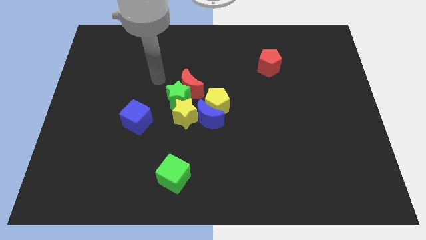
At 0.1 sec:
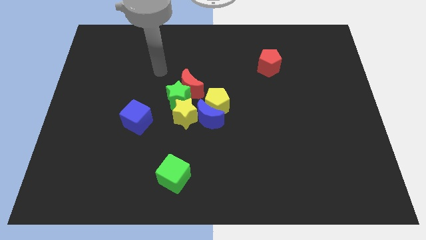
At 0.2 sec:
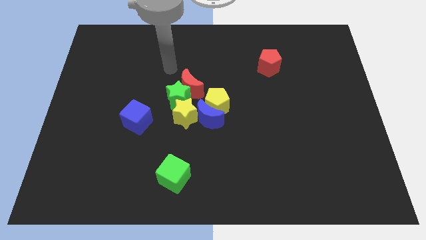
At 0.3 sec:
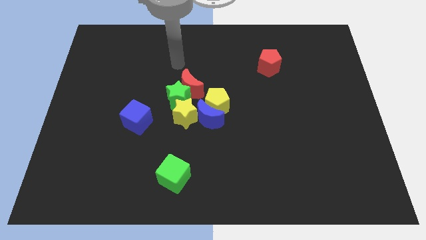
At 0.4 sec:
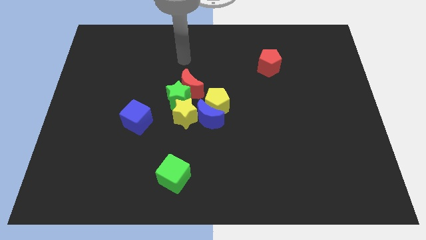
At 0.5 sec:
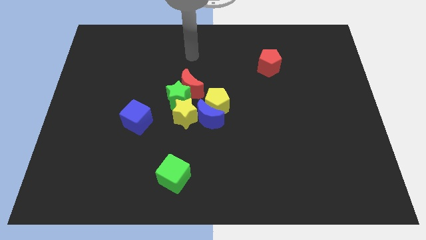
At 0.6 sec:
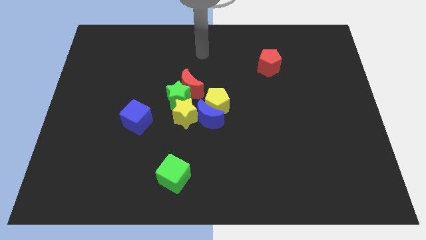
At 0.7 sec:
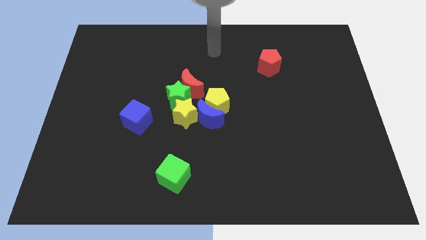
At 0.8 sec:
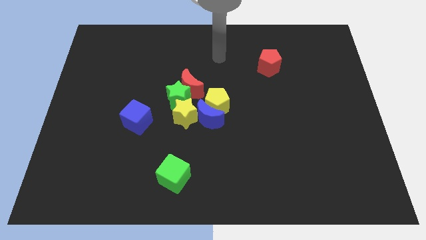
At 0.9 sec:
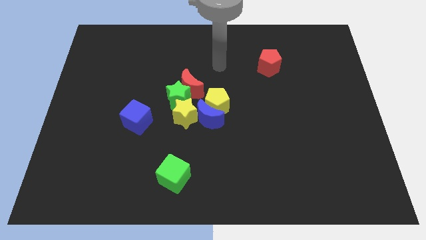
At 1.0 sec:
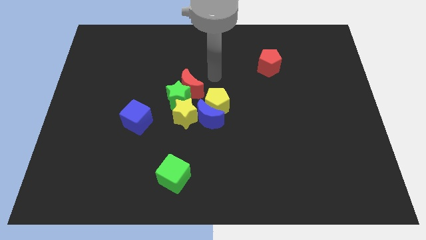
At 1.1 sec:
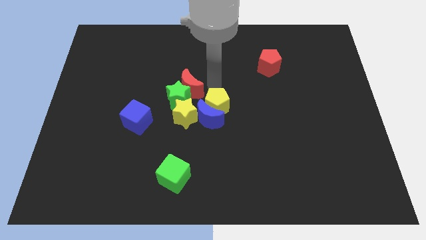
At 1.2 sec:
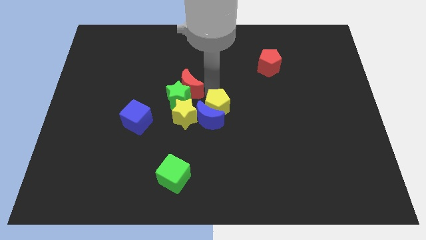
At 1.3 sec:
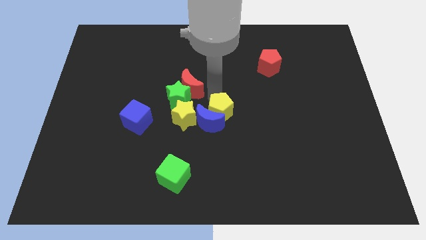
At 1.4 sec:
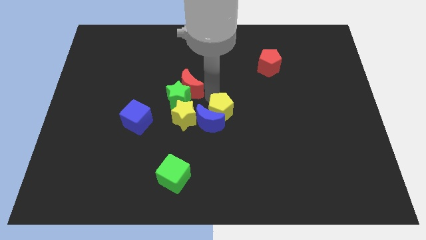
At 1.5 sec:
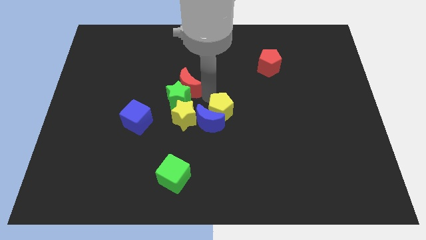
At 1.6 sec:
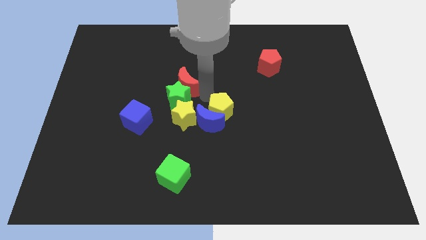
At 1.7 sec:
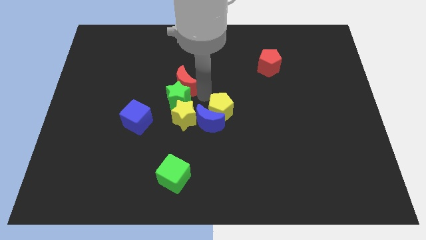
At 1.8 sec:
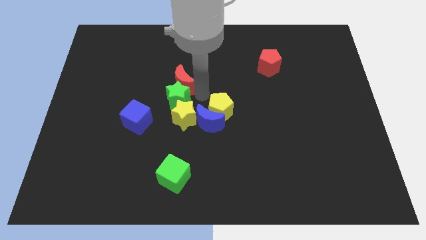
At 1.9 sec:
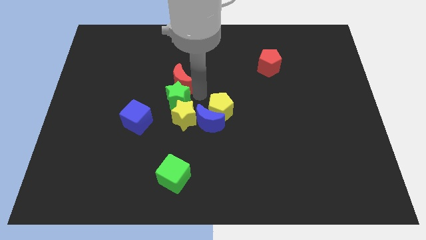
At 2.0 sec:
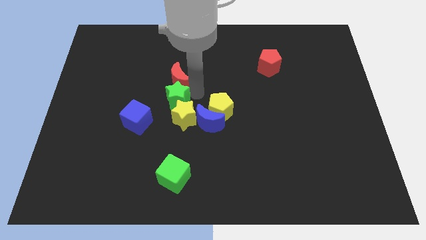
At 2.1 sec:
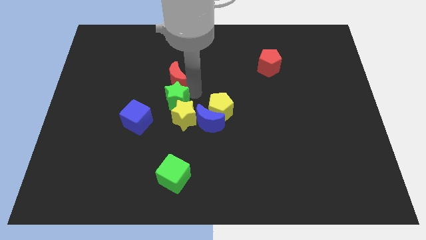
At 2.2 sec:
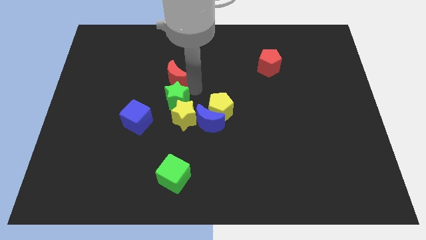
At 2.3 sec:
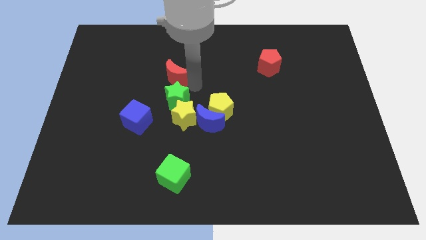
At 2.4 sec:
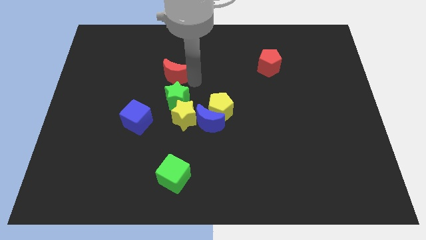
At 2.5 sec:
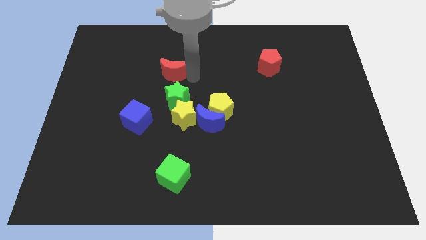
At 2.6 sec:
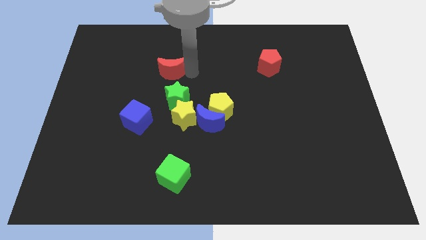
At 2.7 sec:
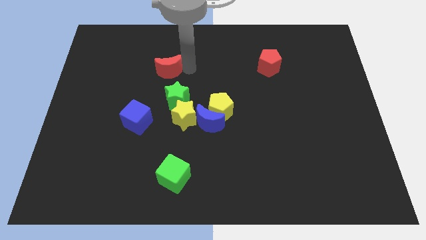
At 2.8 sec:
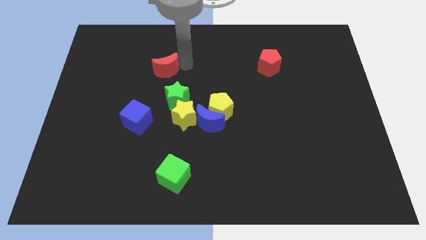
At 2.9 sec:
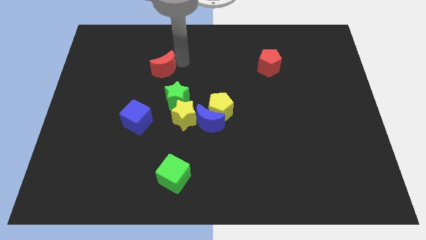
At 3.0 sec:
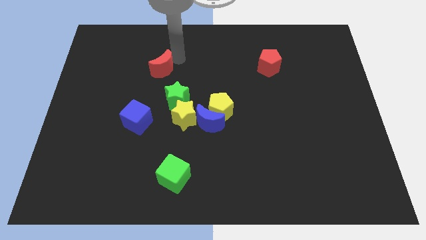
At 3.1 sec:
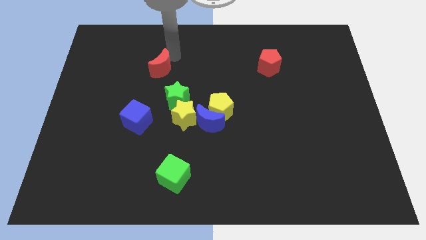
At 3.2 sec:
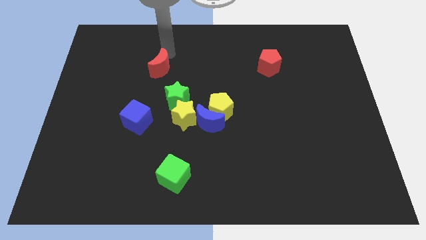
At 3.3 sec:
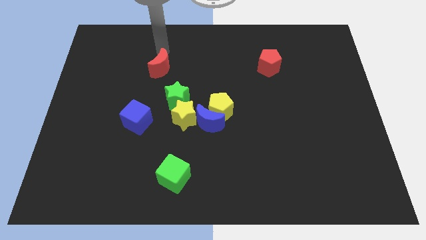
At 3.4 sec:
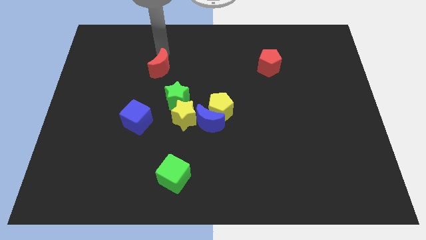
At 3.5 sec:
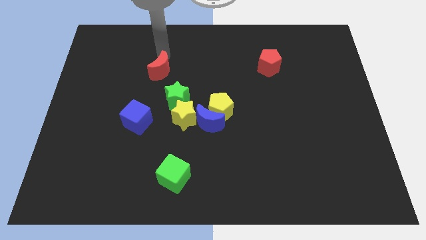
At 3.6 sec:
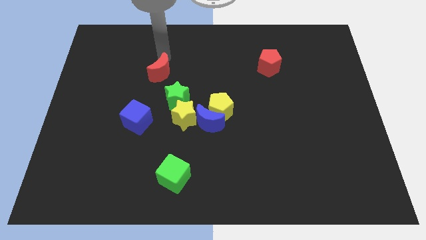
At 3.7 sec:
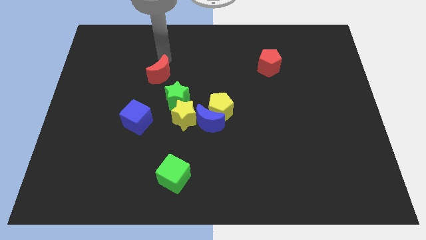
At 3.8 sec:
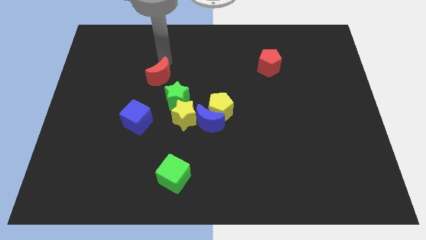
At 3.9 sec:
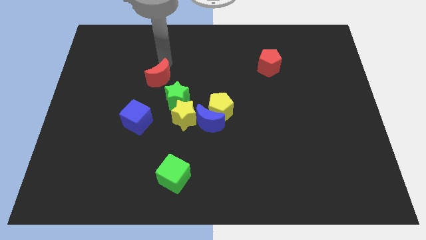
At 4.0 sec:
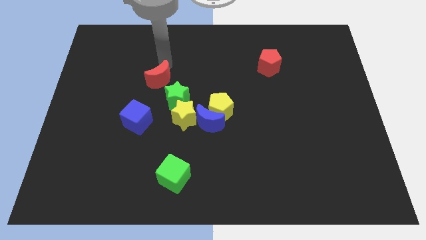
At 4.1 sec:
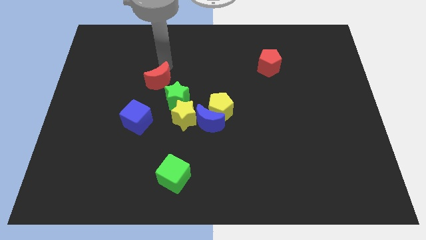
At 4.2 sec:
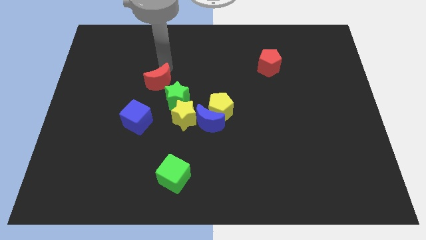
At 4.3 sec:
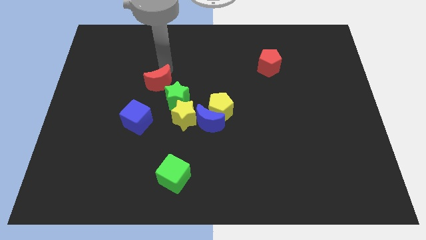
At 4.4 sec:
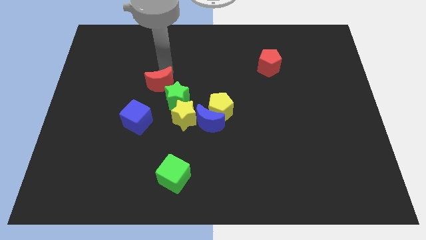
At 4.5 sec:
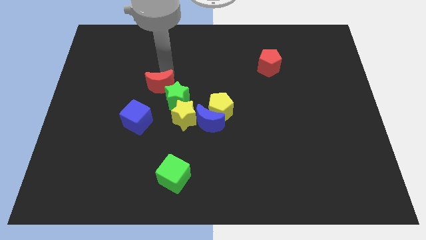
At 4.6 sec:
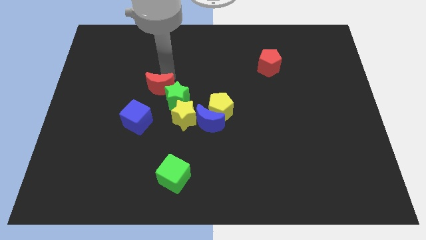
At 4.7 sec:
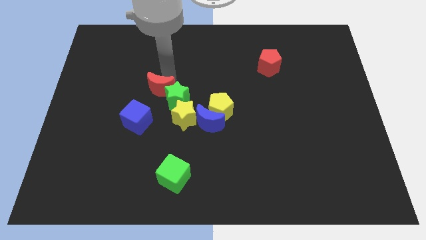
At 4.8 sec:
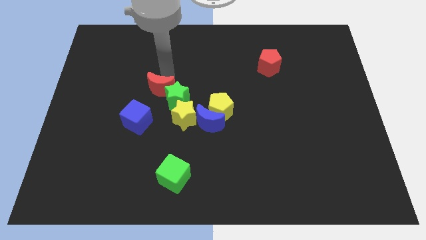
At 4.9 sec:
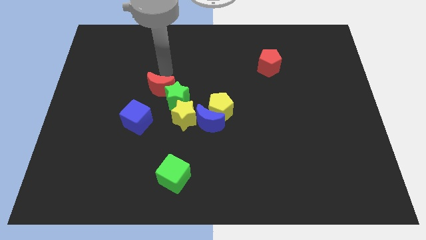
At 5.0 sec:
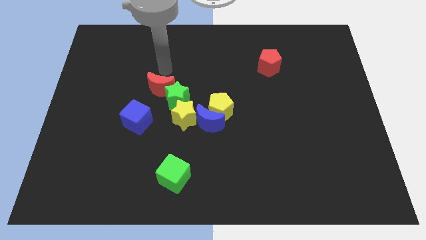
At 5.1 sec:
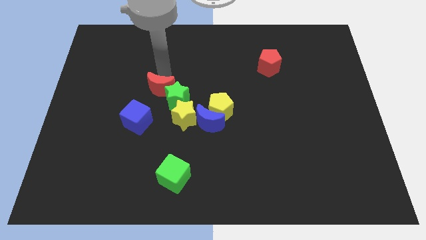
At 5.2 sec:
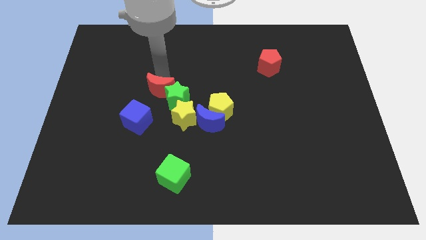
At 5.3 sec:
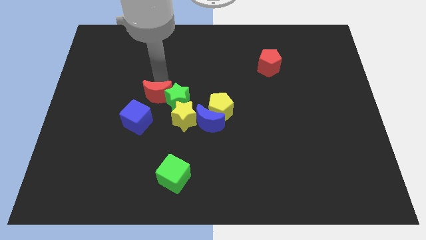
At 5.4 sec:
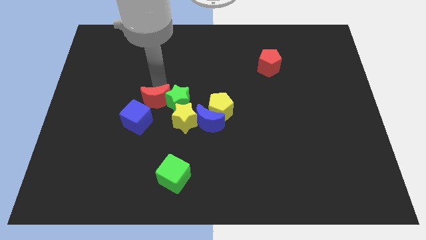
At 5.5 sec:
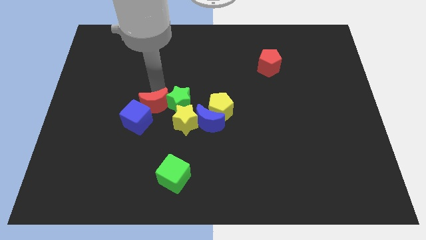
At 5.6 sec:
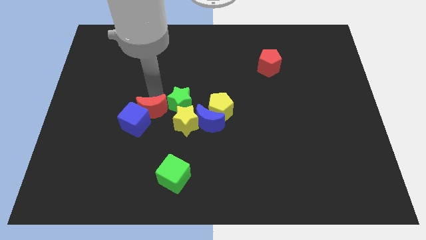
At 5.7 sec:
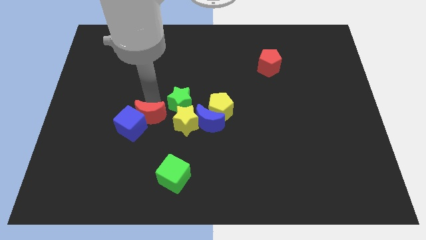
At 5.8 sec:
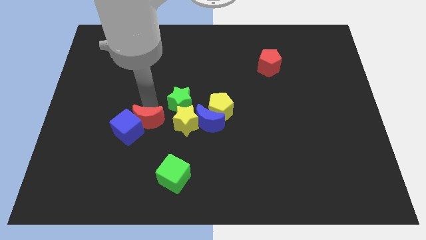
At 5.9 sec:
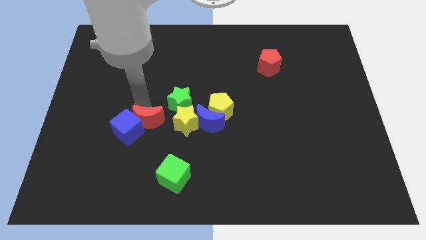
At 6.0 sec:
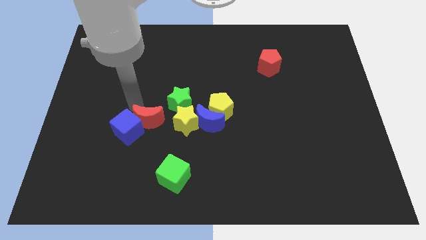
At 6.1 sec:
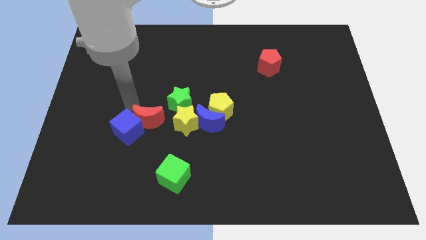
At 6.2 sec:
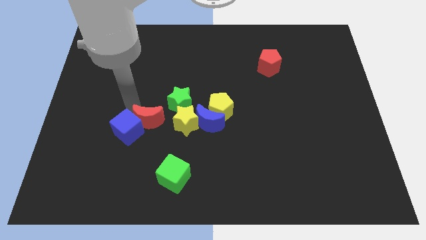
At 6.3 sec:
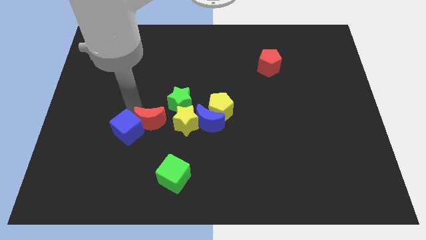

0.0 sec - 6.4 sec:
push the red moon somewhat down

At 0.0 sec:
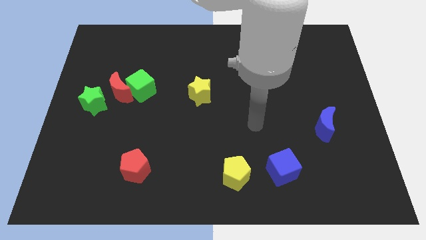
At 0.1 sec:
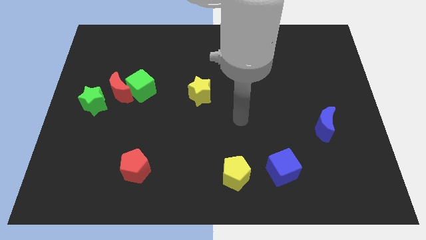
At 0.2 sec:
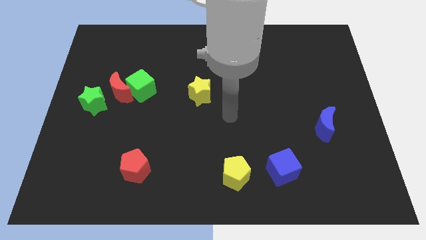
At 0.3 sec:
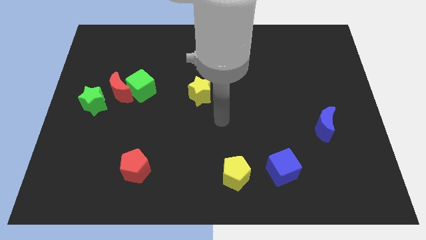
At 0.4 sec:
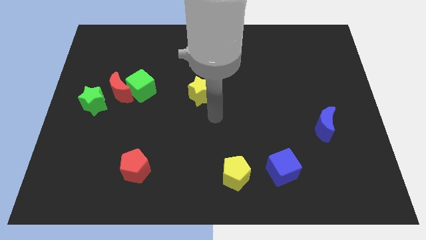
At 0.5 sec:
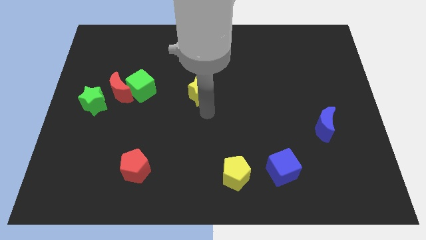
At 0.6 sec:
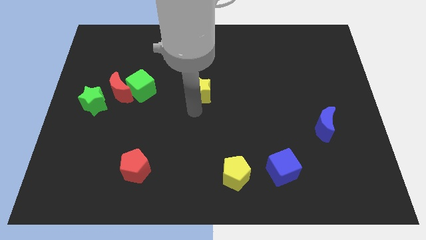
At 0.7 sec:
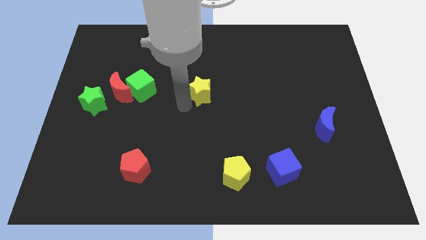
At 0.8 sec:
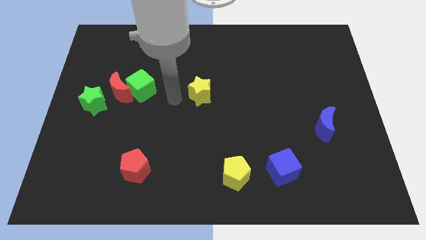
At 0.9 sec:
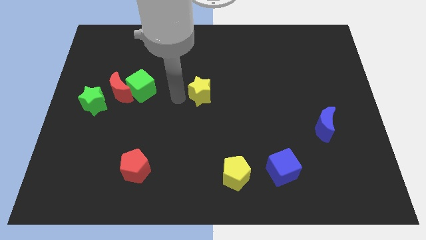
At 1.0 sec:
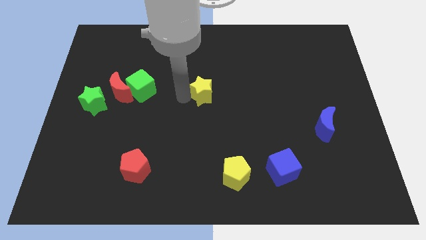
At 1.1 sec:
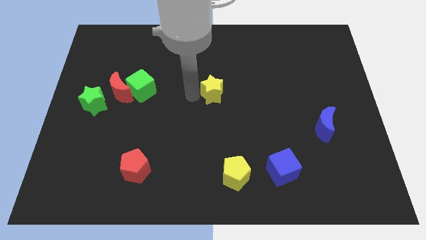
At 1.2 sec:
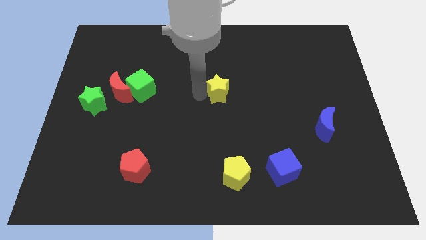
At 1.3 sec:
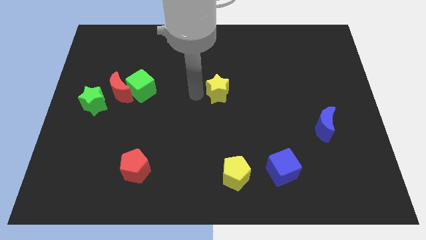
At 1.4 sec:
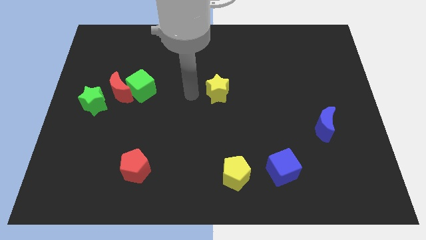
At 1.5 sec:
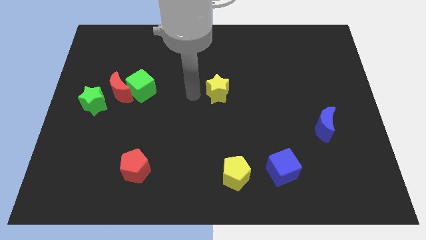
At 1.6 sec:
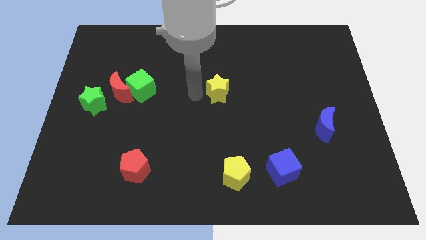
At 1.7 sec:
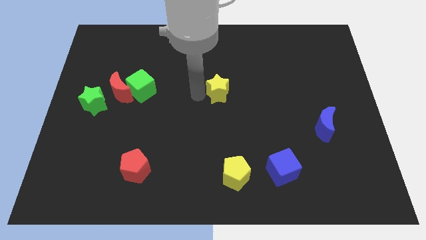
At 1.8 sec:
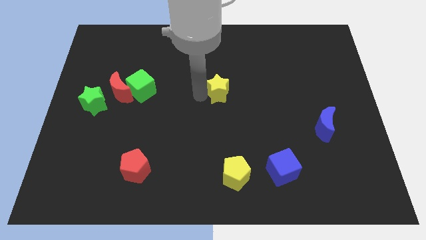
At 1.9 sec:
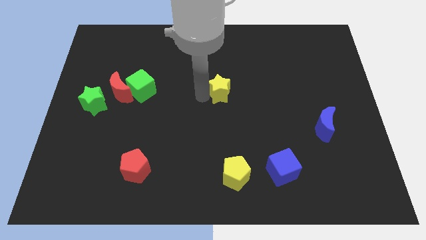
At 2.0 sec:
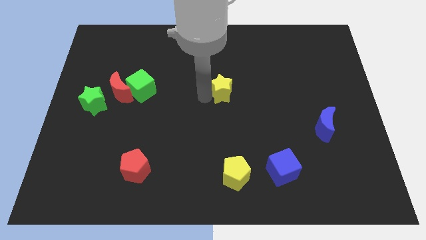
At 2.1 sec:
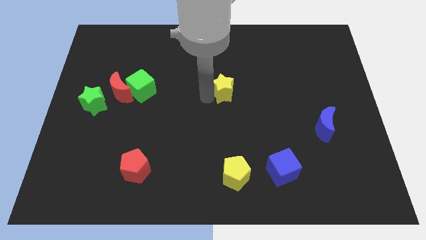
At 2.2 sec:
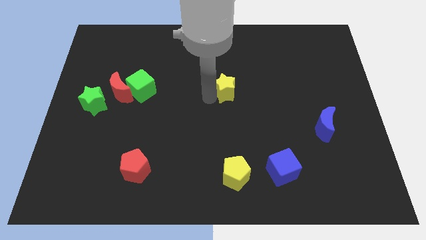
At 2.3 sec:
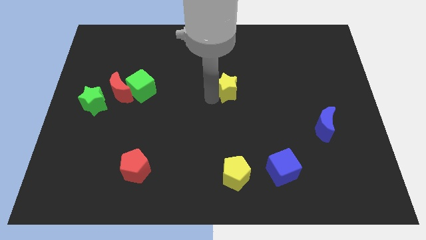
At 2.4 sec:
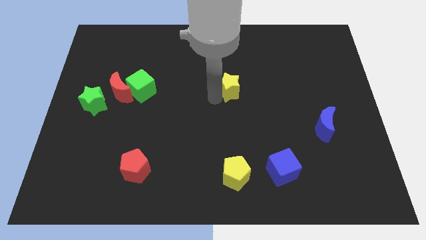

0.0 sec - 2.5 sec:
slightly move the yellow star to the right
